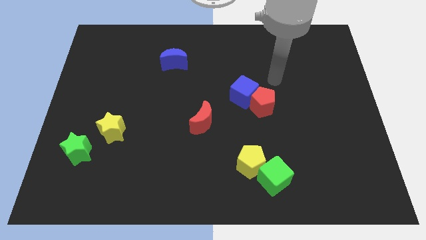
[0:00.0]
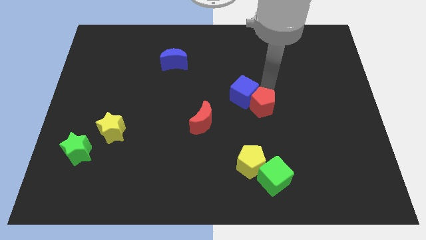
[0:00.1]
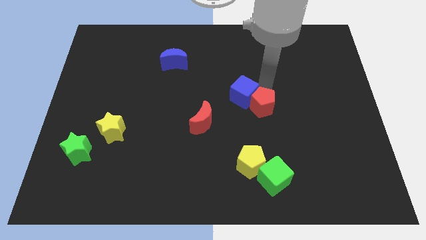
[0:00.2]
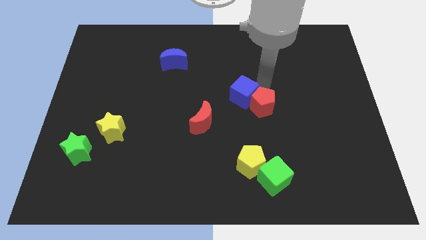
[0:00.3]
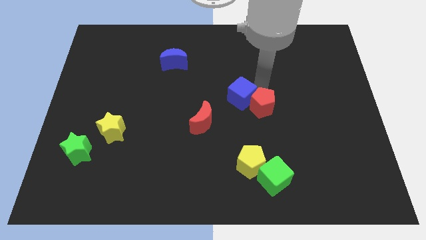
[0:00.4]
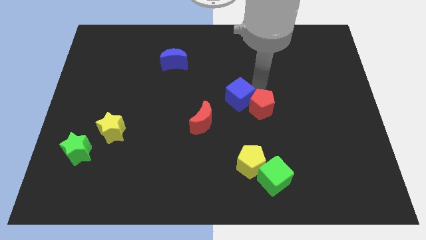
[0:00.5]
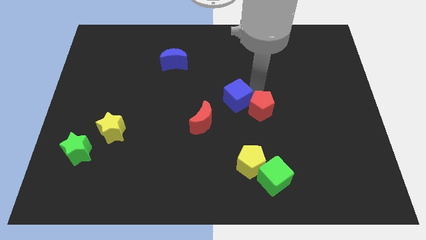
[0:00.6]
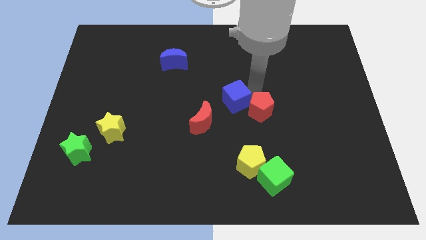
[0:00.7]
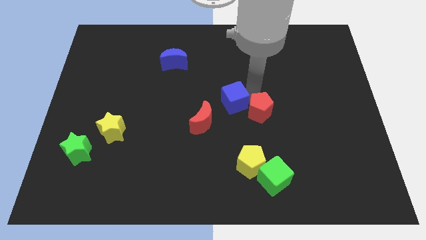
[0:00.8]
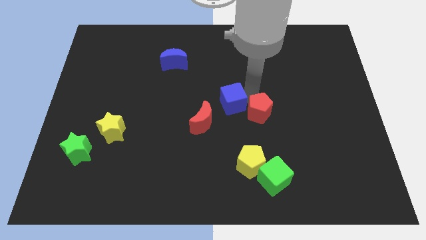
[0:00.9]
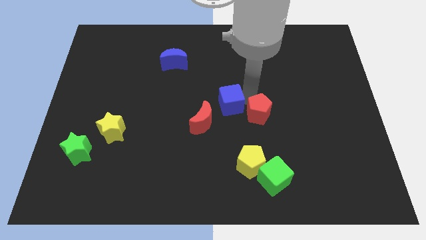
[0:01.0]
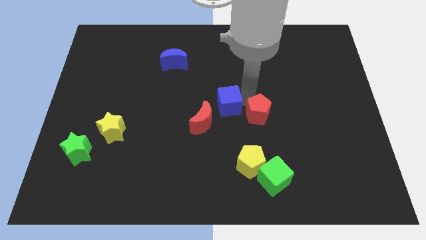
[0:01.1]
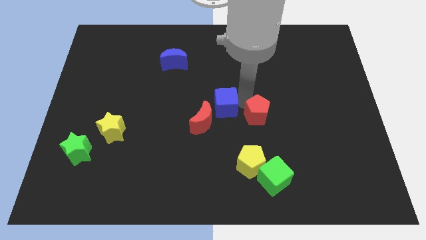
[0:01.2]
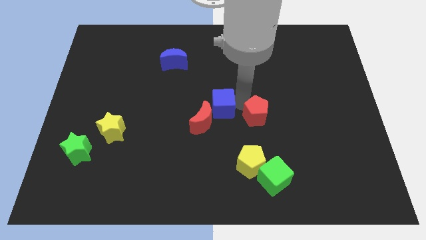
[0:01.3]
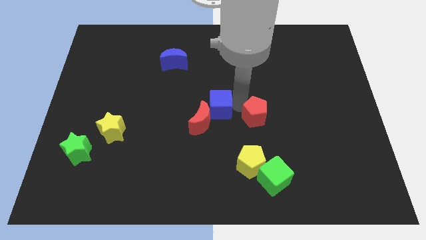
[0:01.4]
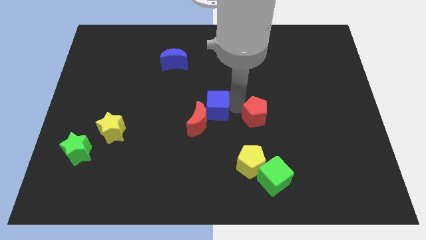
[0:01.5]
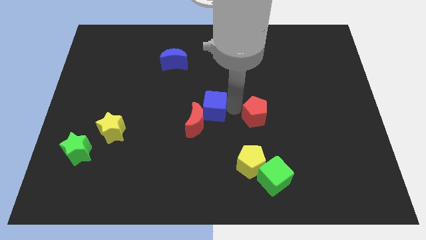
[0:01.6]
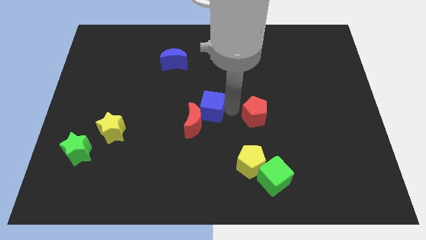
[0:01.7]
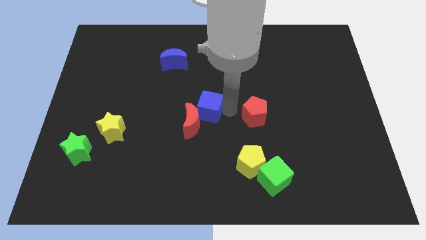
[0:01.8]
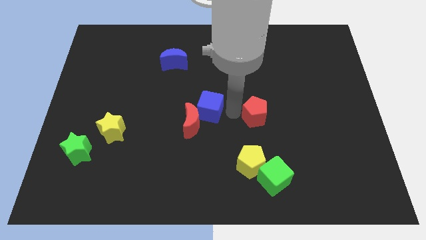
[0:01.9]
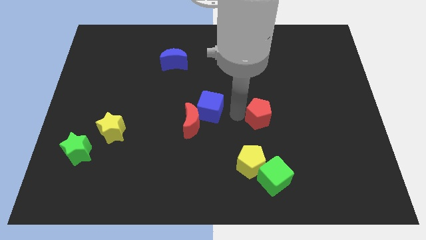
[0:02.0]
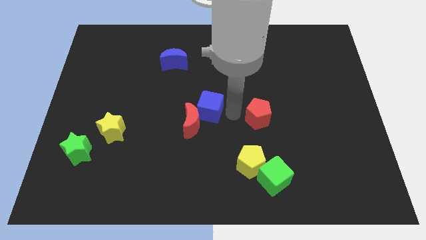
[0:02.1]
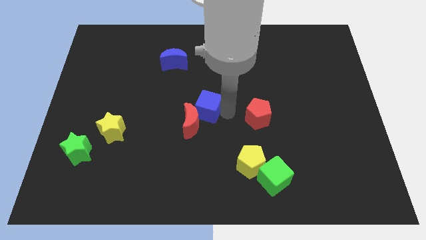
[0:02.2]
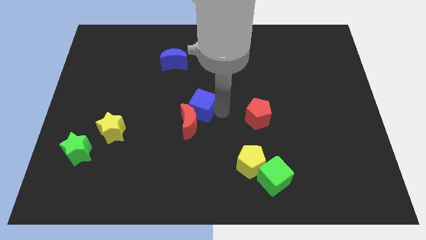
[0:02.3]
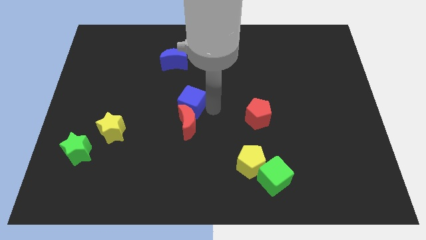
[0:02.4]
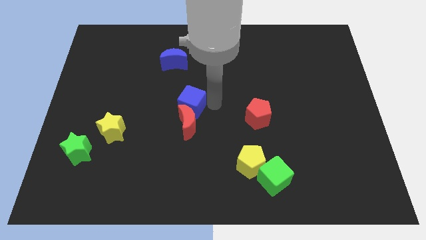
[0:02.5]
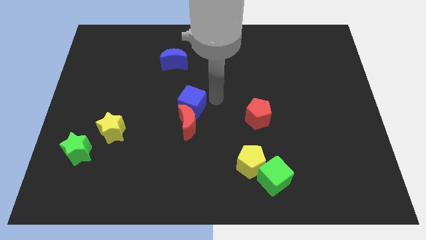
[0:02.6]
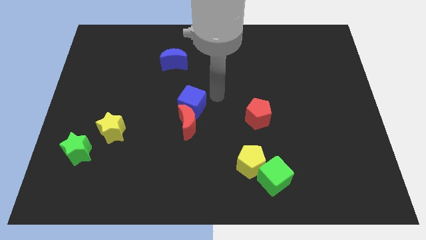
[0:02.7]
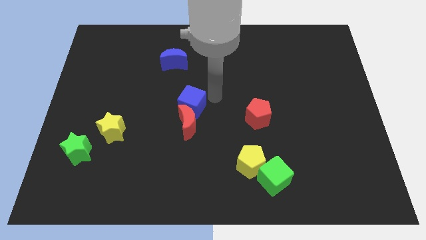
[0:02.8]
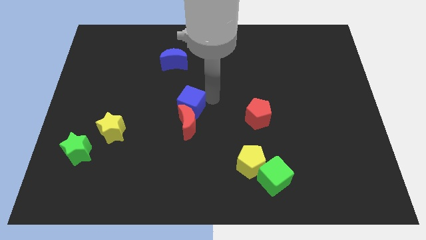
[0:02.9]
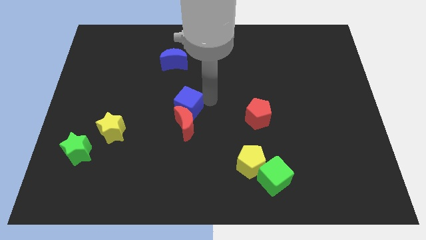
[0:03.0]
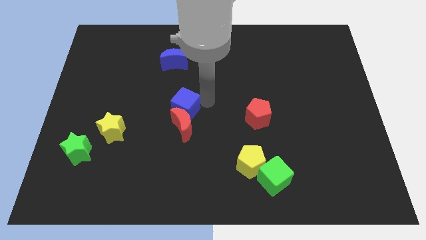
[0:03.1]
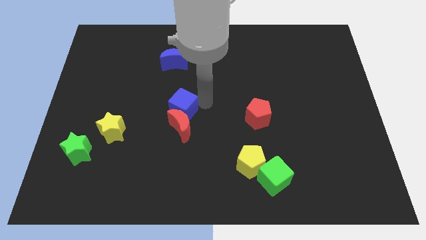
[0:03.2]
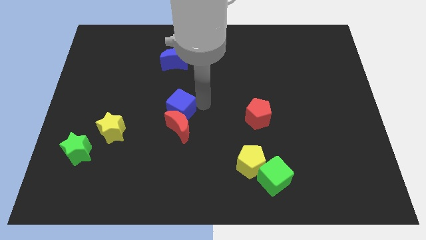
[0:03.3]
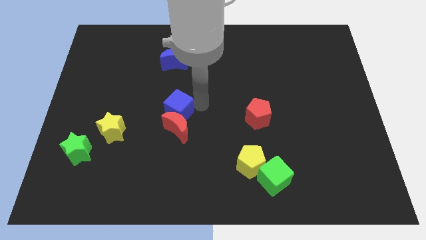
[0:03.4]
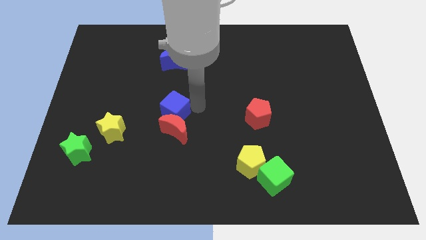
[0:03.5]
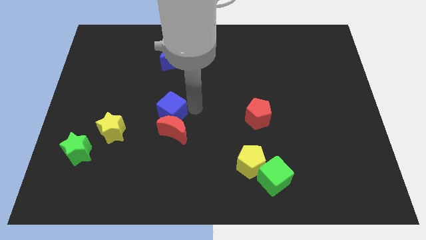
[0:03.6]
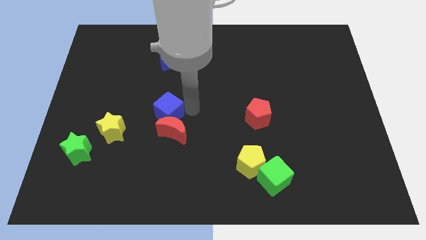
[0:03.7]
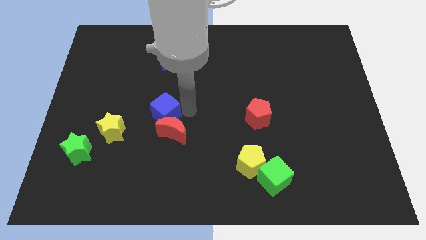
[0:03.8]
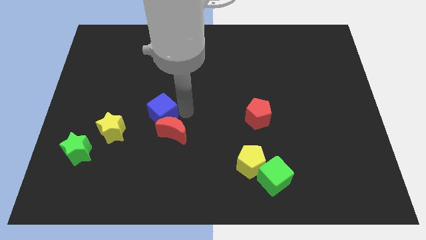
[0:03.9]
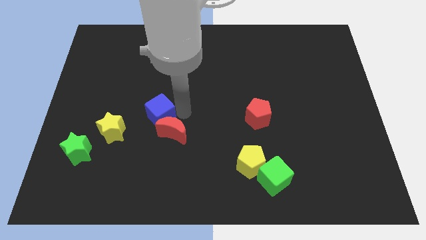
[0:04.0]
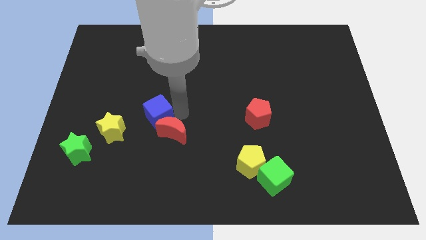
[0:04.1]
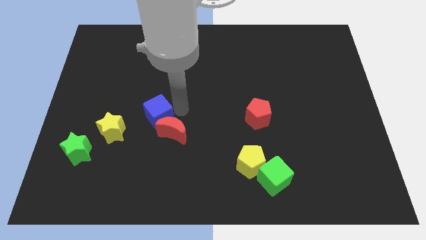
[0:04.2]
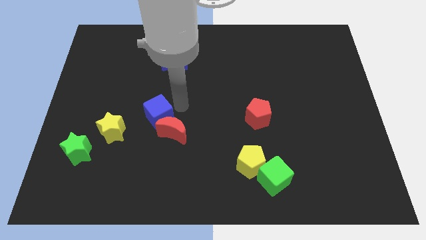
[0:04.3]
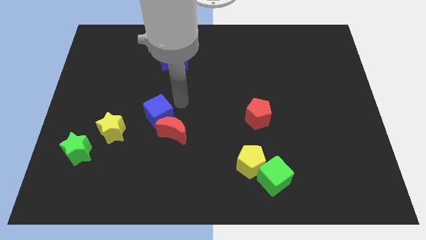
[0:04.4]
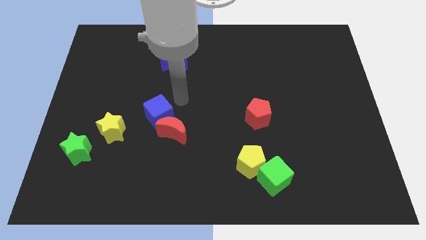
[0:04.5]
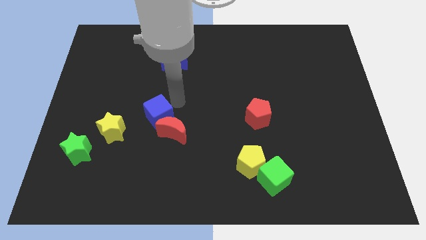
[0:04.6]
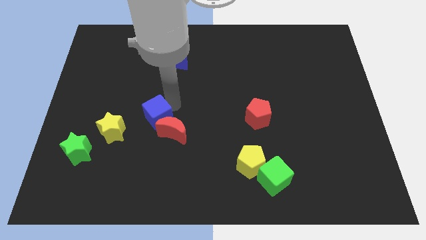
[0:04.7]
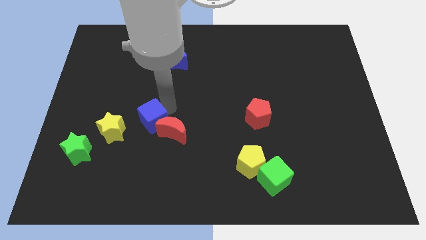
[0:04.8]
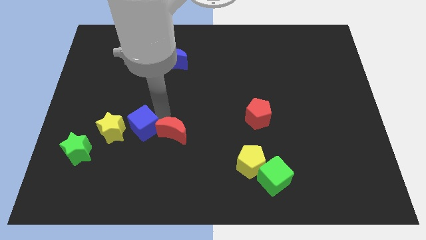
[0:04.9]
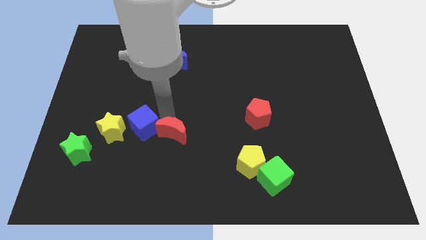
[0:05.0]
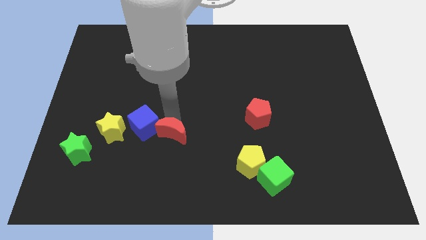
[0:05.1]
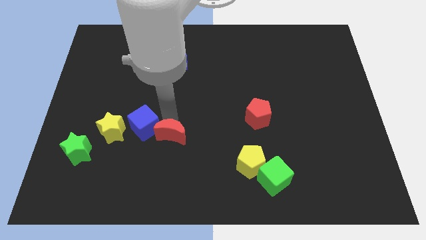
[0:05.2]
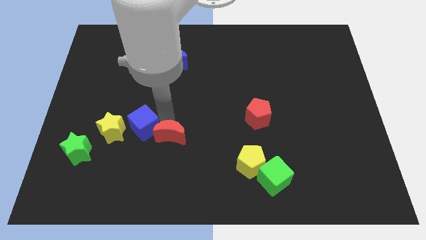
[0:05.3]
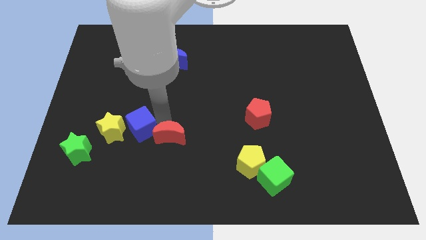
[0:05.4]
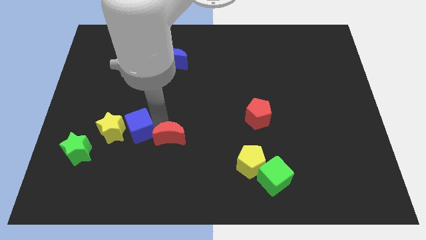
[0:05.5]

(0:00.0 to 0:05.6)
move the blue cube close to the yellow star

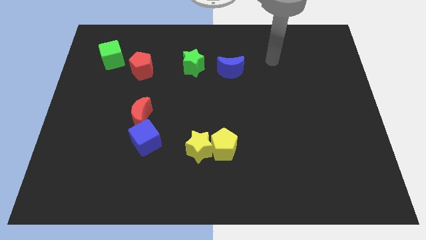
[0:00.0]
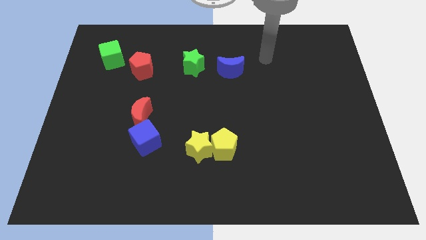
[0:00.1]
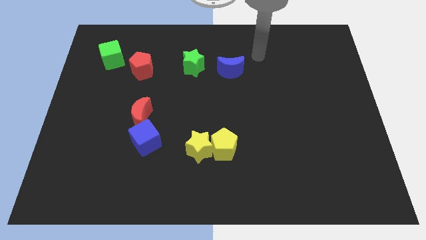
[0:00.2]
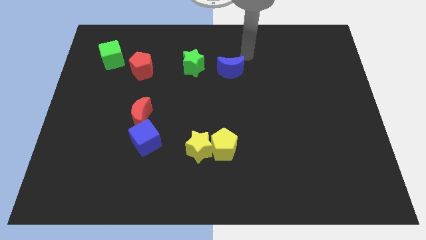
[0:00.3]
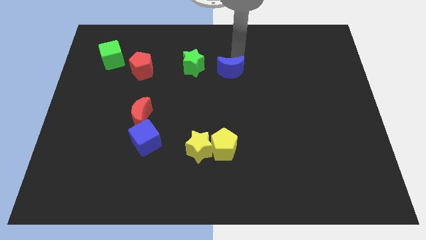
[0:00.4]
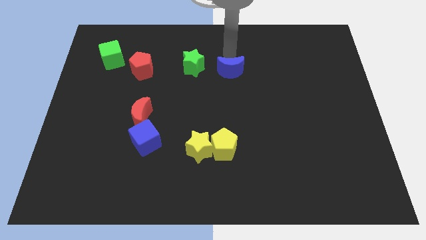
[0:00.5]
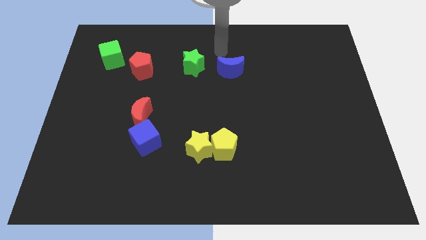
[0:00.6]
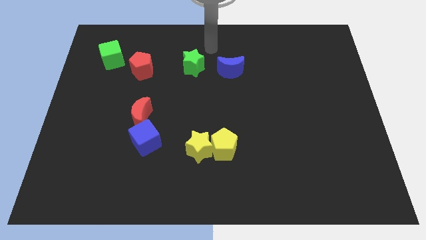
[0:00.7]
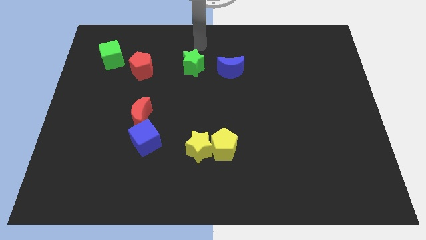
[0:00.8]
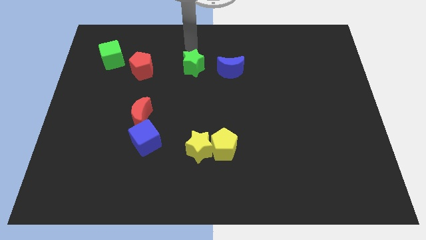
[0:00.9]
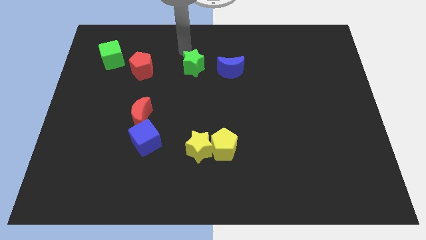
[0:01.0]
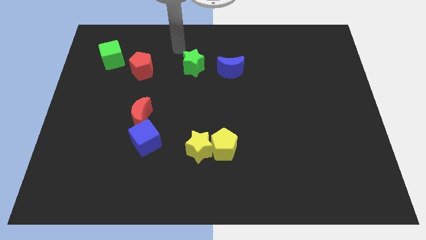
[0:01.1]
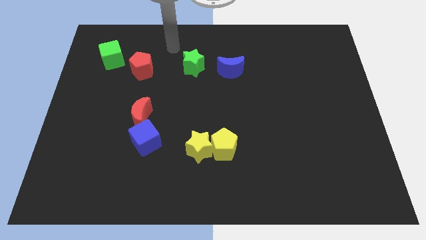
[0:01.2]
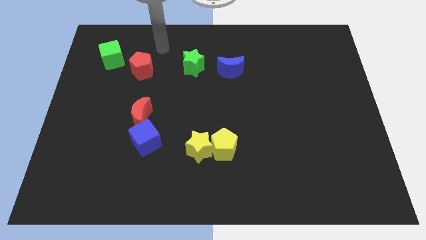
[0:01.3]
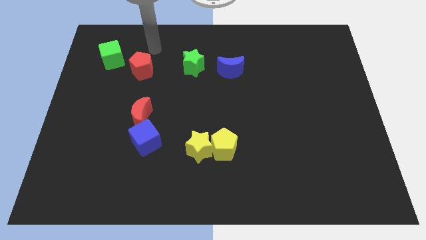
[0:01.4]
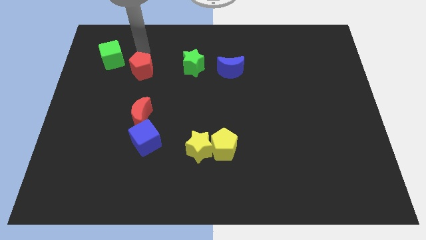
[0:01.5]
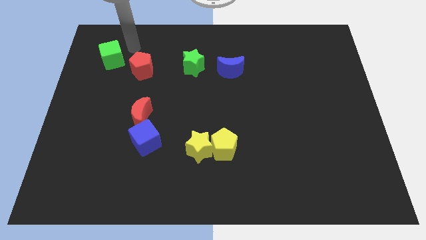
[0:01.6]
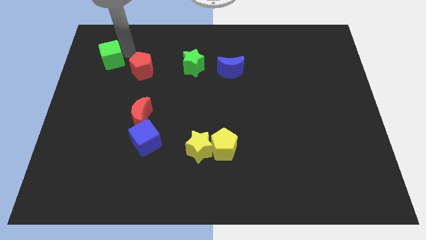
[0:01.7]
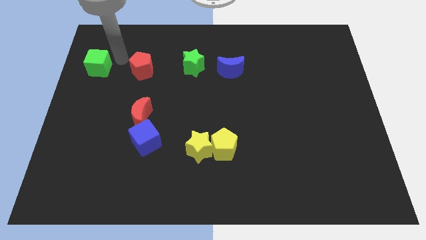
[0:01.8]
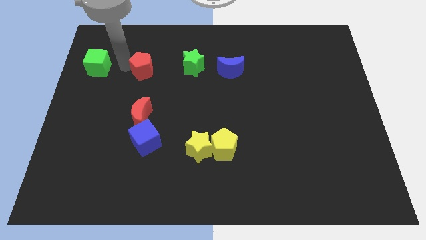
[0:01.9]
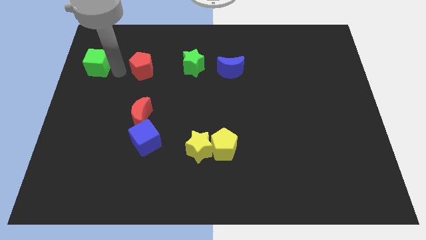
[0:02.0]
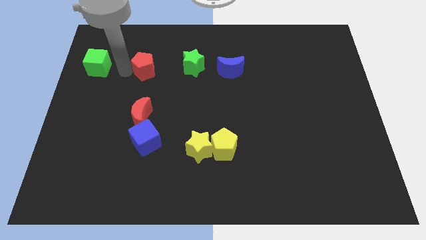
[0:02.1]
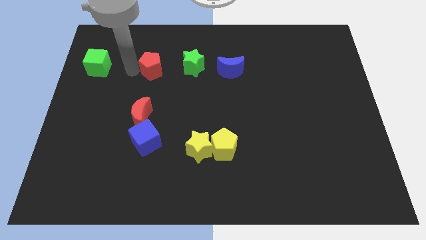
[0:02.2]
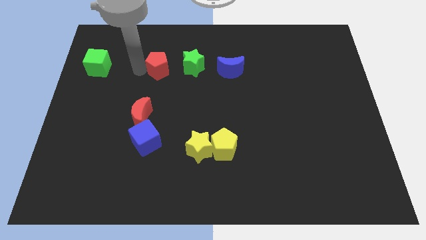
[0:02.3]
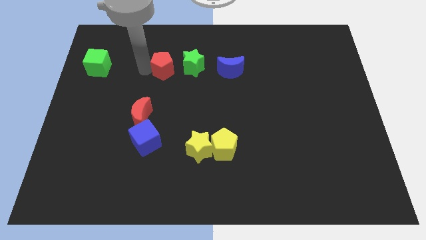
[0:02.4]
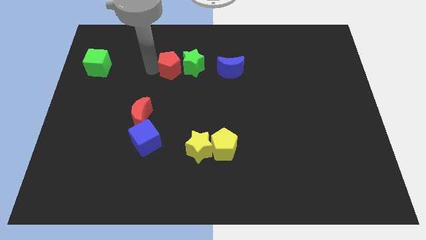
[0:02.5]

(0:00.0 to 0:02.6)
push the red pentagon next to the green star

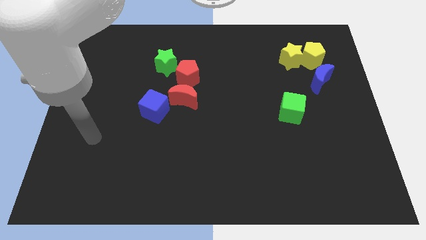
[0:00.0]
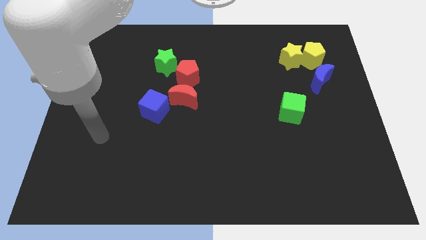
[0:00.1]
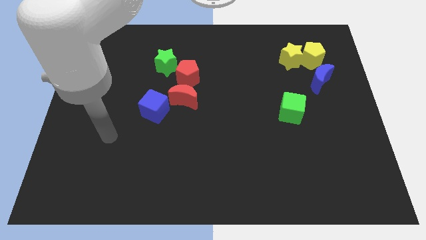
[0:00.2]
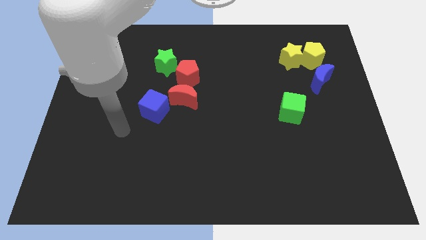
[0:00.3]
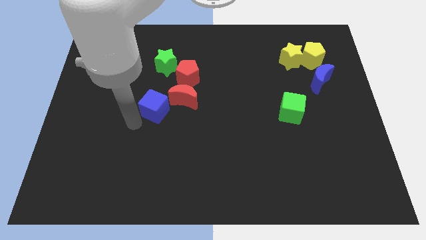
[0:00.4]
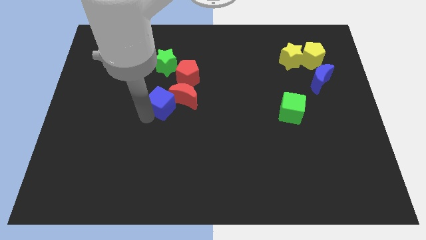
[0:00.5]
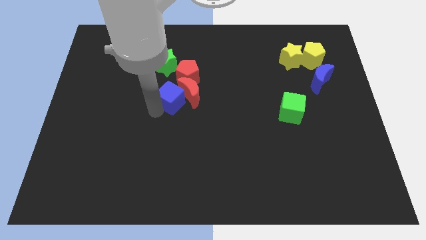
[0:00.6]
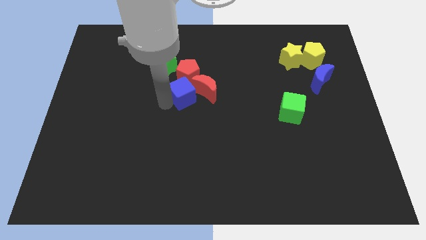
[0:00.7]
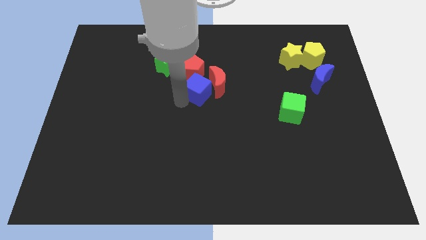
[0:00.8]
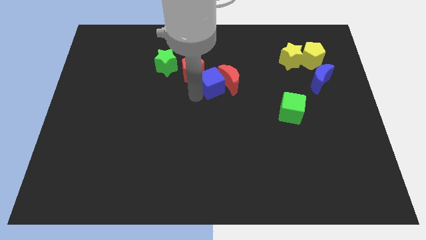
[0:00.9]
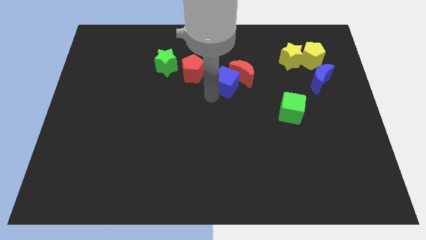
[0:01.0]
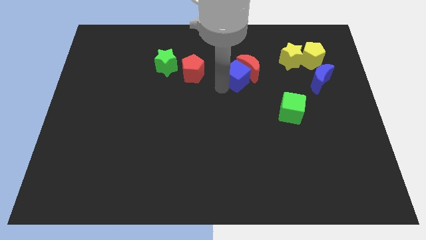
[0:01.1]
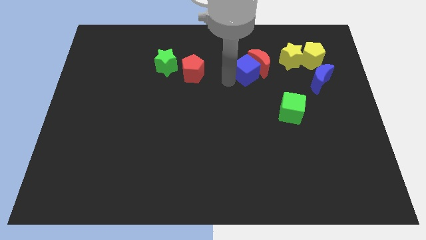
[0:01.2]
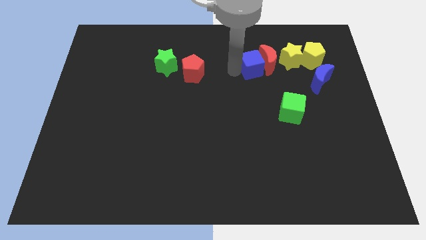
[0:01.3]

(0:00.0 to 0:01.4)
push the red moon to the yellow star
